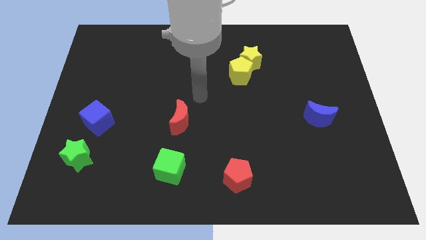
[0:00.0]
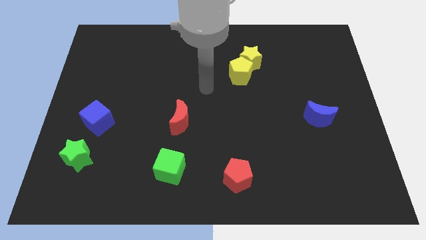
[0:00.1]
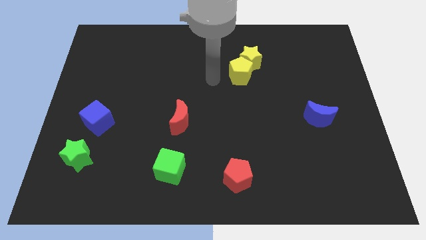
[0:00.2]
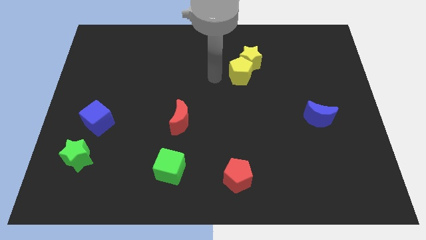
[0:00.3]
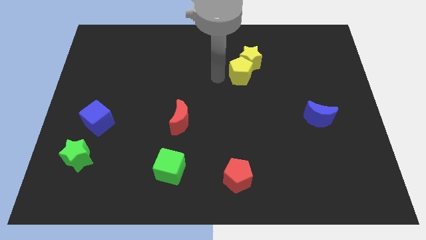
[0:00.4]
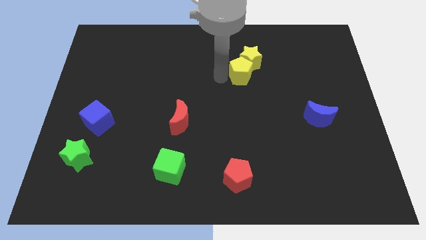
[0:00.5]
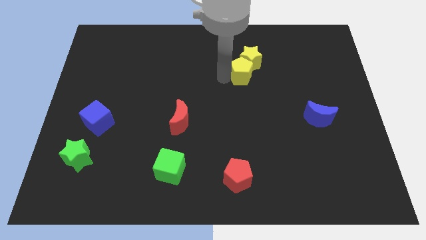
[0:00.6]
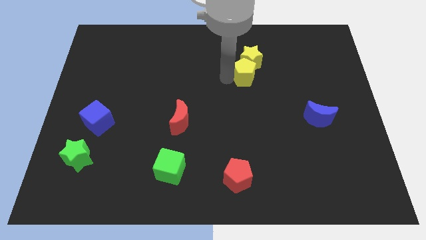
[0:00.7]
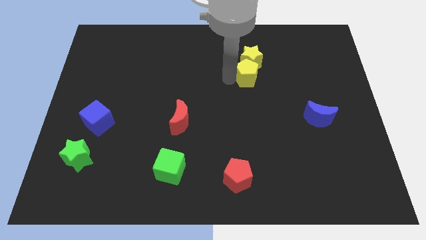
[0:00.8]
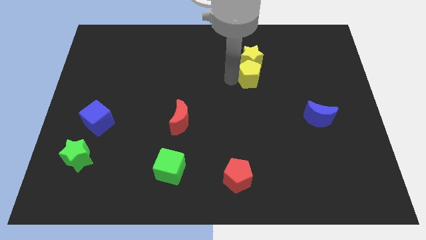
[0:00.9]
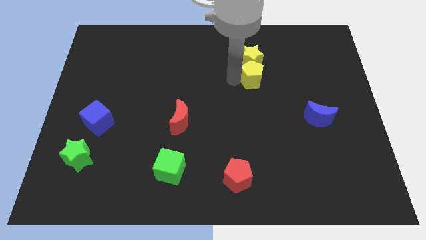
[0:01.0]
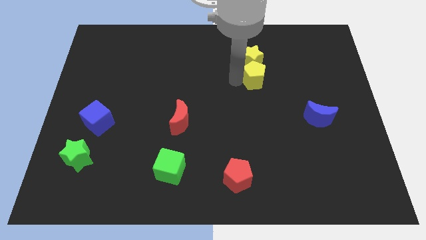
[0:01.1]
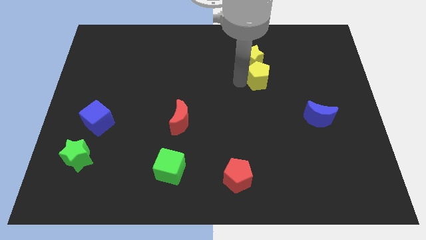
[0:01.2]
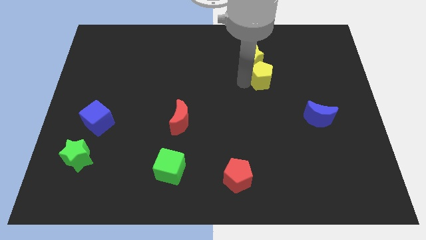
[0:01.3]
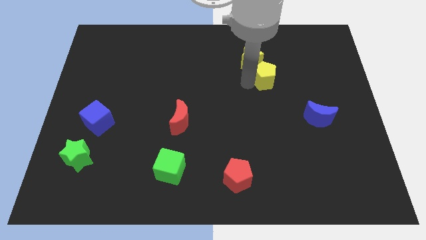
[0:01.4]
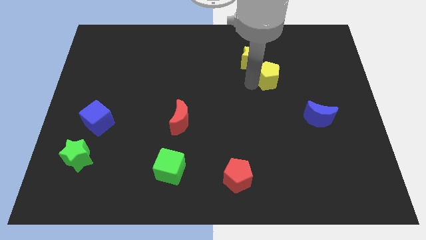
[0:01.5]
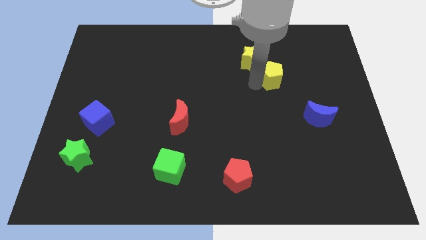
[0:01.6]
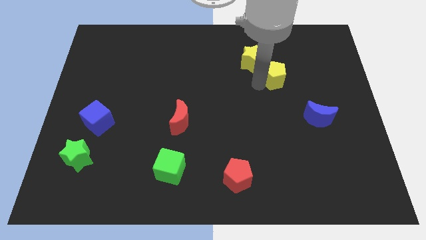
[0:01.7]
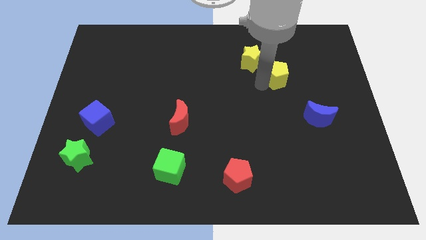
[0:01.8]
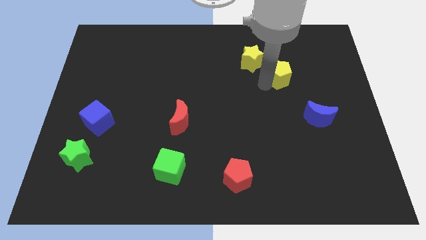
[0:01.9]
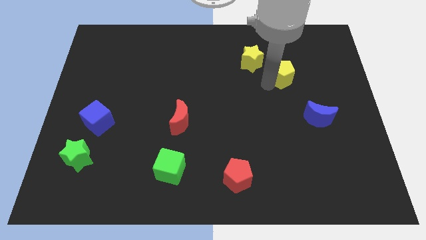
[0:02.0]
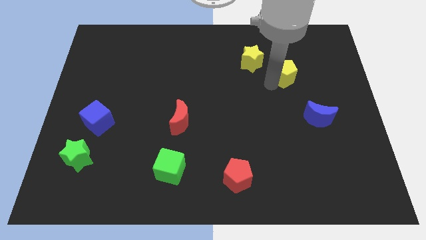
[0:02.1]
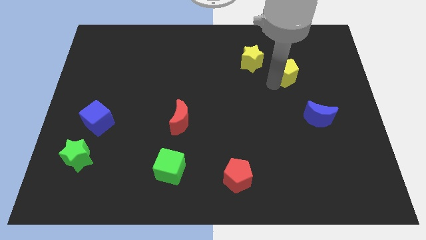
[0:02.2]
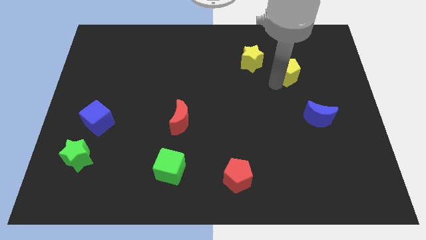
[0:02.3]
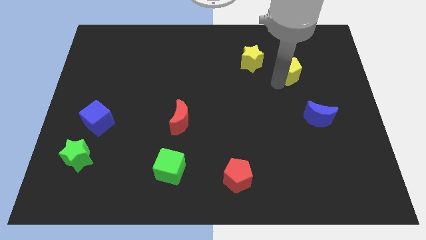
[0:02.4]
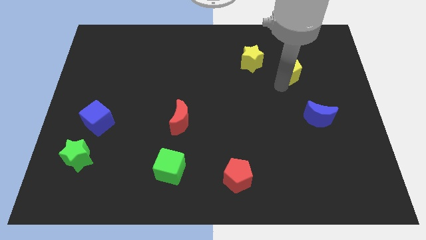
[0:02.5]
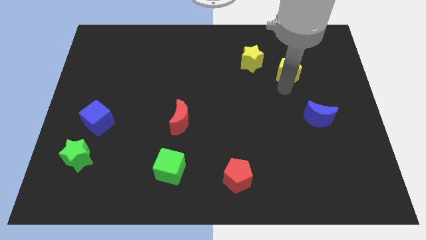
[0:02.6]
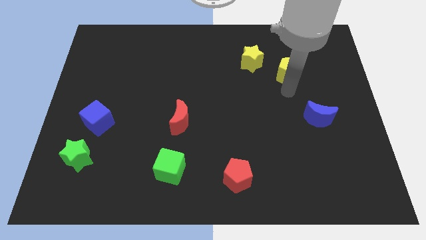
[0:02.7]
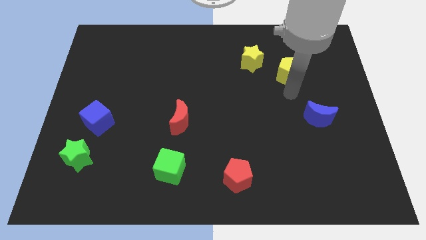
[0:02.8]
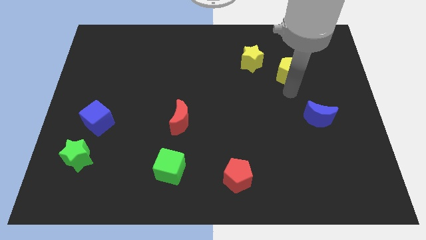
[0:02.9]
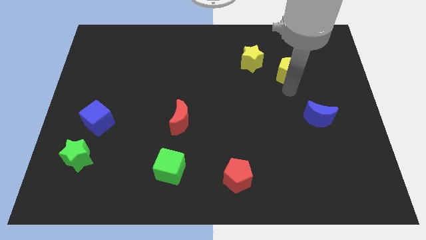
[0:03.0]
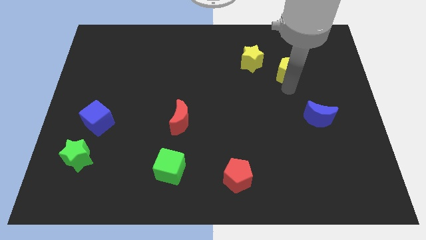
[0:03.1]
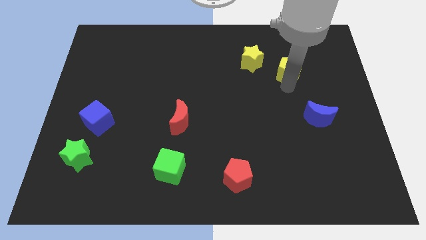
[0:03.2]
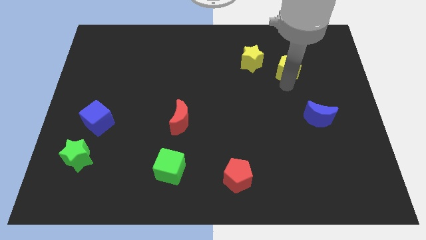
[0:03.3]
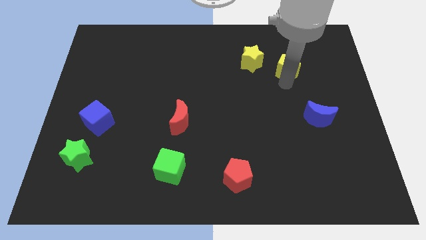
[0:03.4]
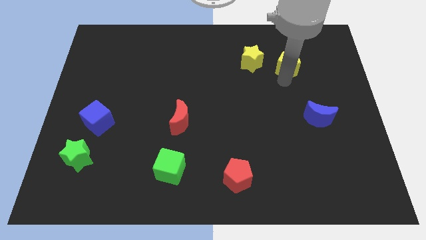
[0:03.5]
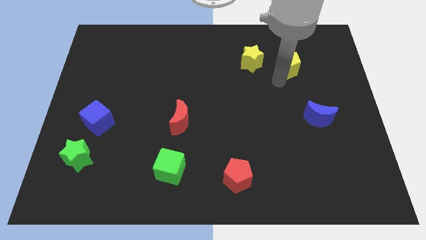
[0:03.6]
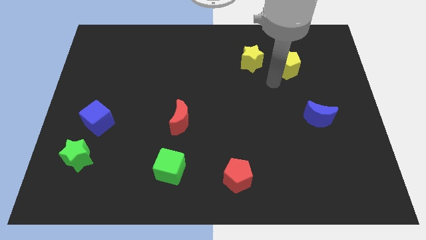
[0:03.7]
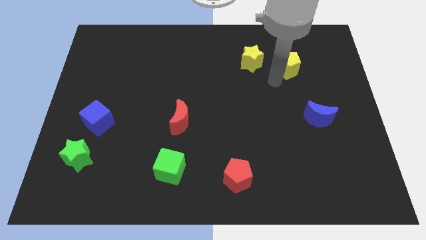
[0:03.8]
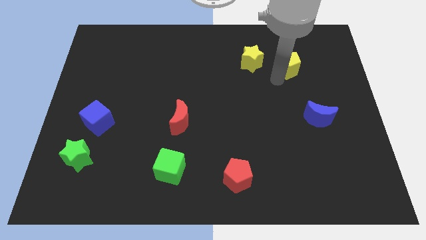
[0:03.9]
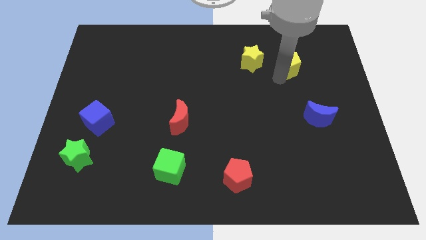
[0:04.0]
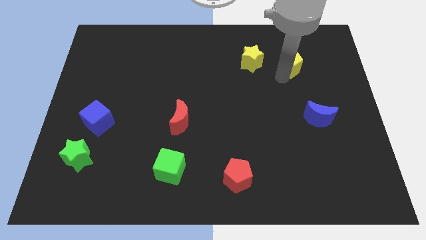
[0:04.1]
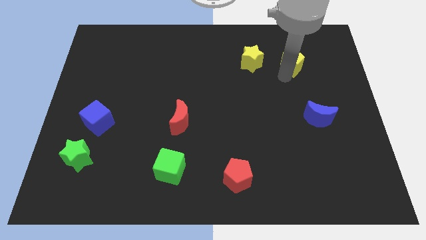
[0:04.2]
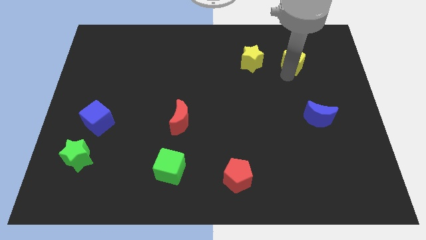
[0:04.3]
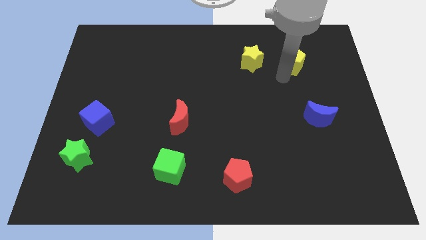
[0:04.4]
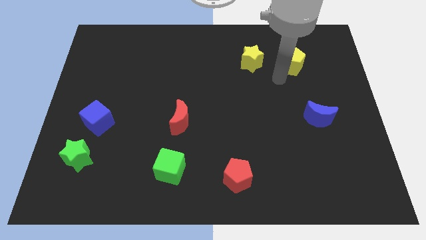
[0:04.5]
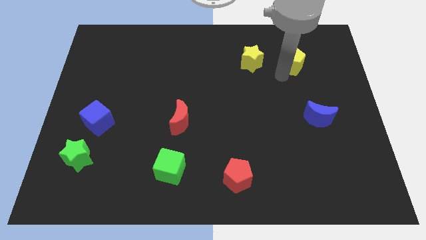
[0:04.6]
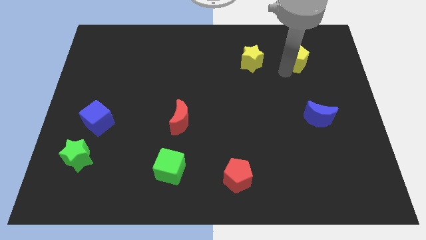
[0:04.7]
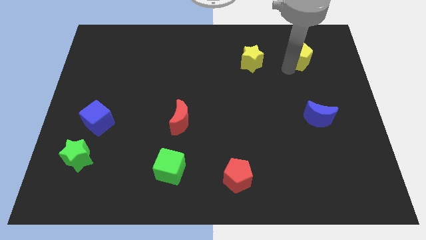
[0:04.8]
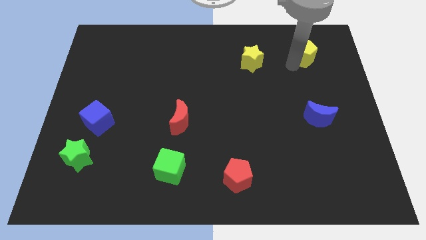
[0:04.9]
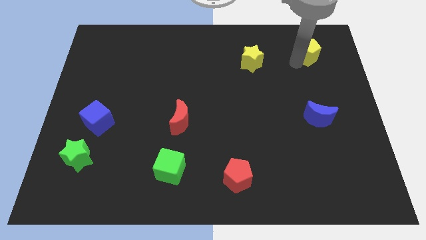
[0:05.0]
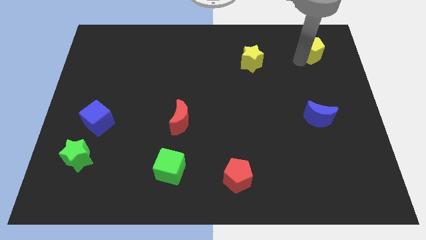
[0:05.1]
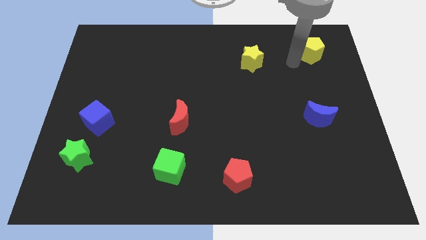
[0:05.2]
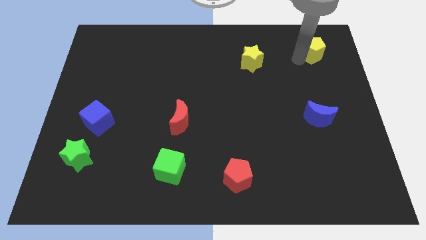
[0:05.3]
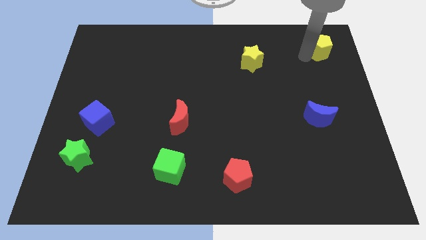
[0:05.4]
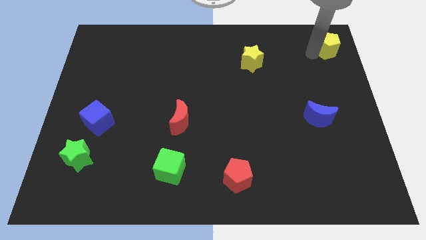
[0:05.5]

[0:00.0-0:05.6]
slide the yellow pentagon to the top right of the board

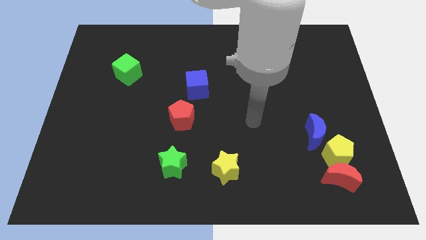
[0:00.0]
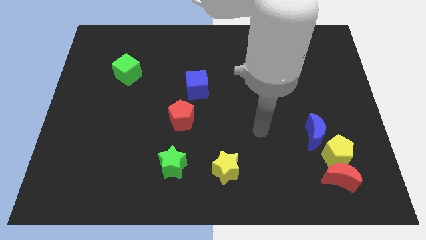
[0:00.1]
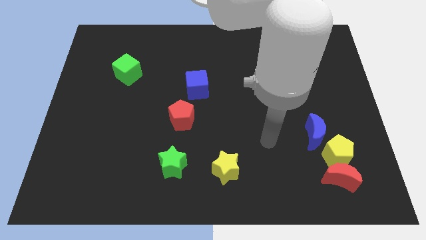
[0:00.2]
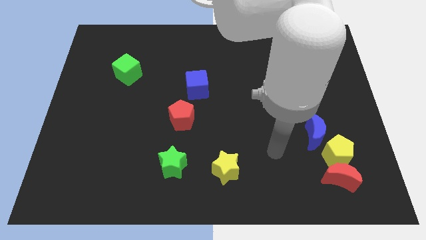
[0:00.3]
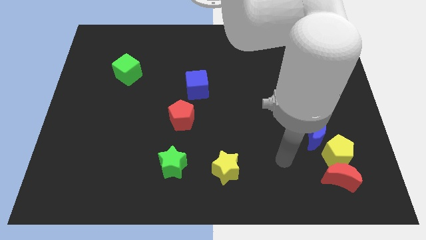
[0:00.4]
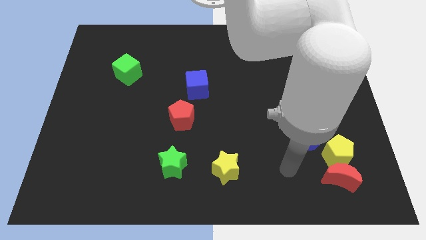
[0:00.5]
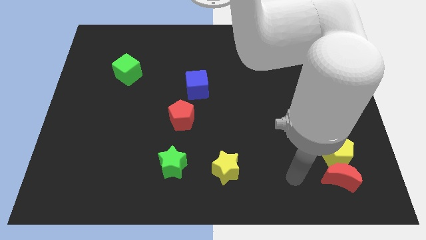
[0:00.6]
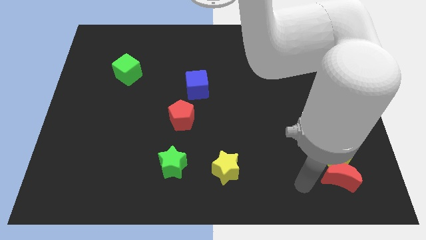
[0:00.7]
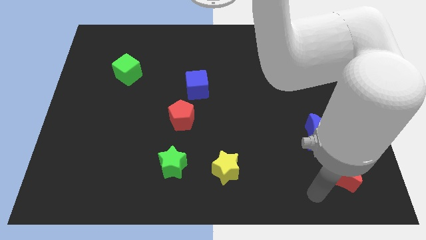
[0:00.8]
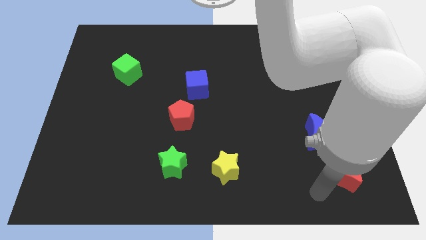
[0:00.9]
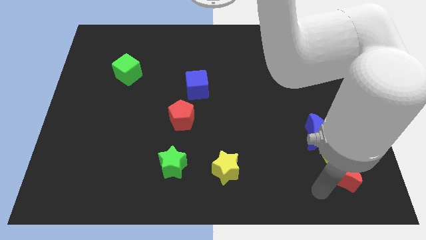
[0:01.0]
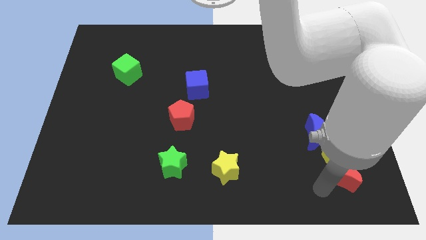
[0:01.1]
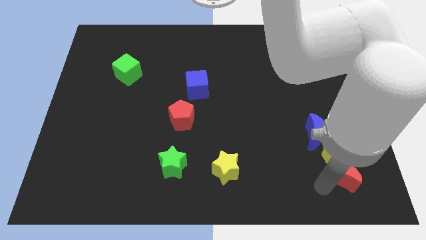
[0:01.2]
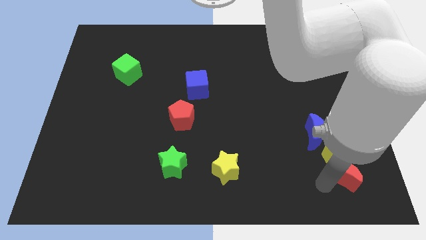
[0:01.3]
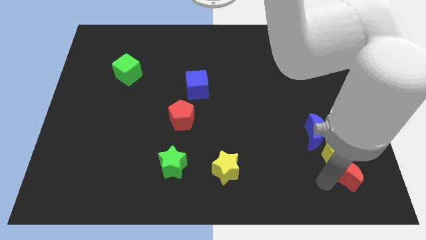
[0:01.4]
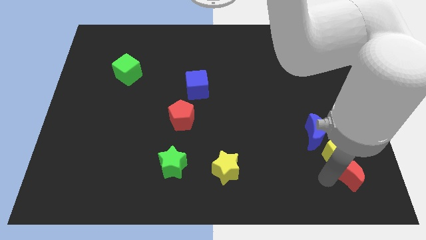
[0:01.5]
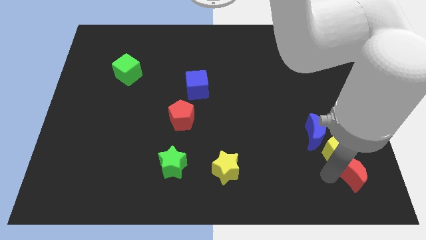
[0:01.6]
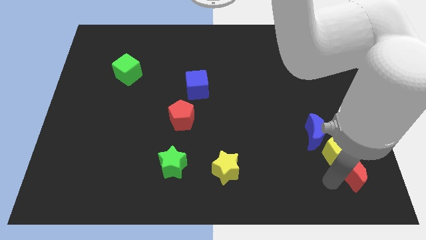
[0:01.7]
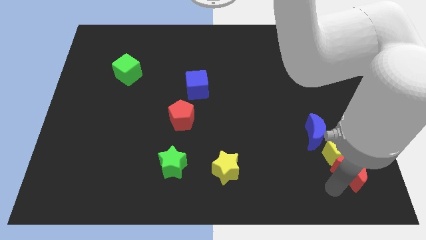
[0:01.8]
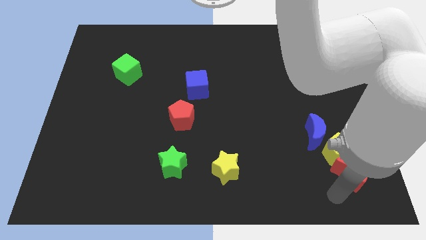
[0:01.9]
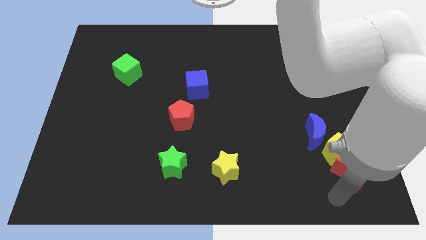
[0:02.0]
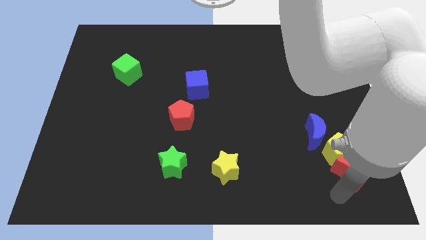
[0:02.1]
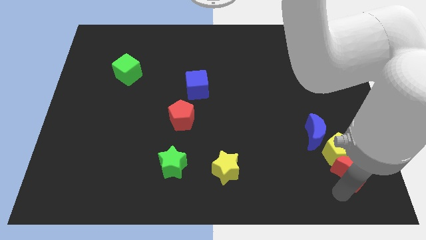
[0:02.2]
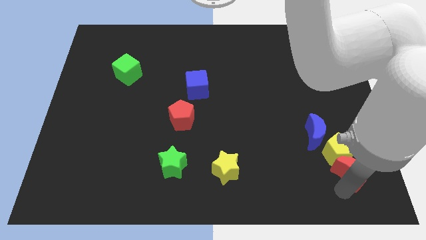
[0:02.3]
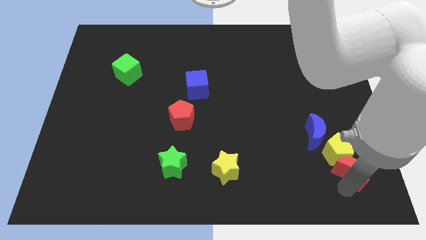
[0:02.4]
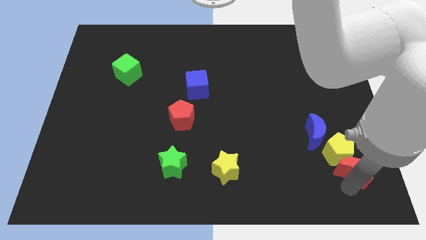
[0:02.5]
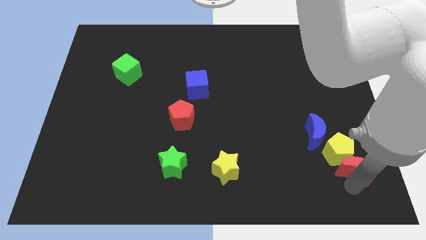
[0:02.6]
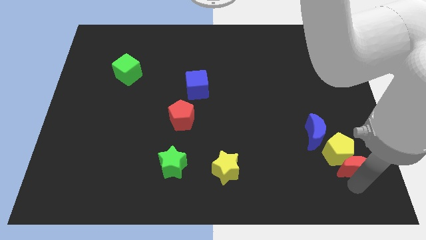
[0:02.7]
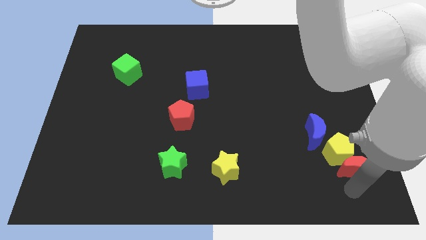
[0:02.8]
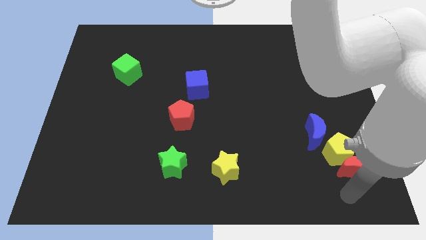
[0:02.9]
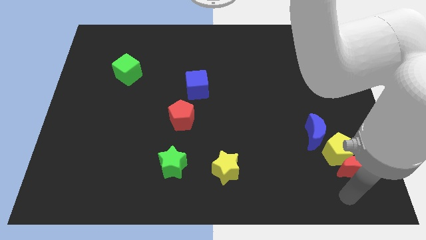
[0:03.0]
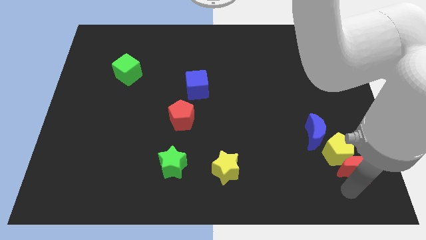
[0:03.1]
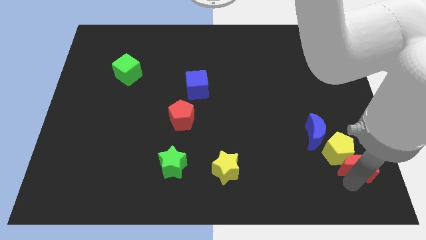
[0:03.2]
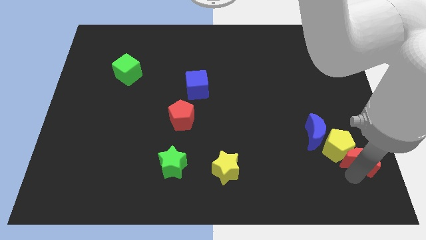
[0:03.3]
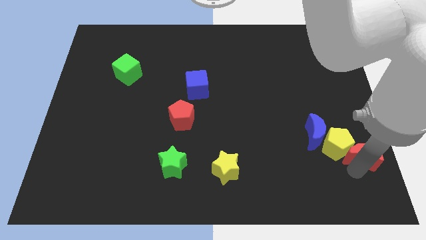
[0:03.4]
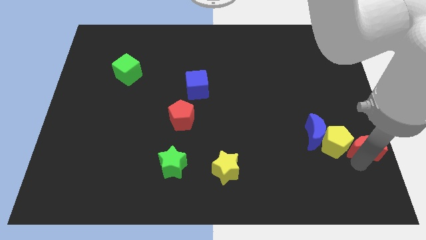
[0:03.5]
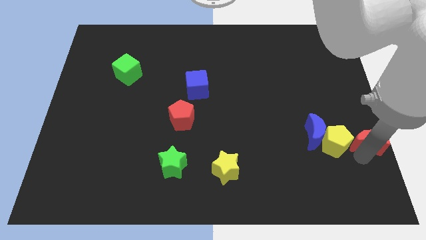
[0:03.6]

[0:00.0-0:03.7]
move the red moon to the right side
